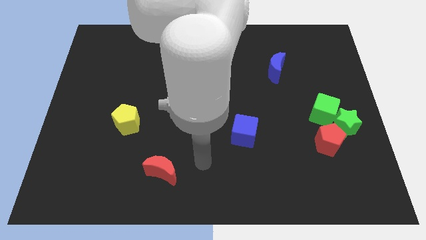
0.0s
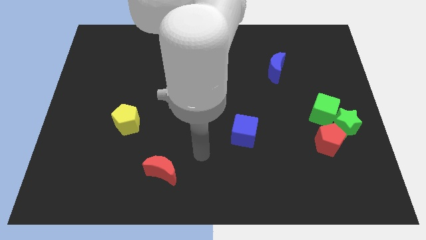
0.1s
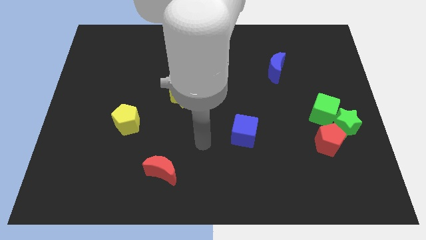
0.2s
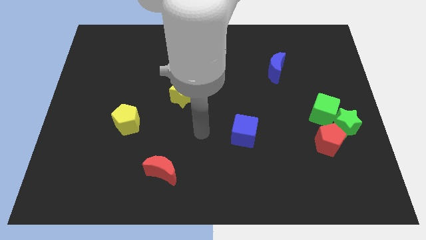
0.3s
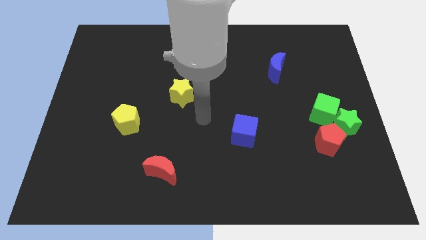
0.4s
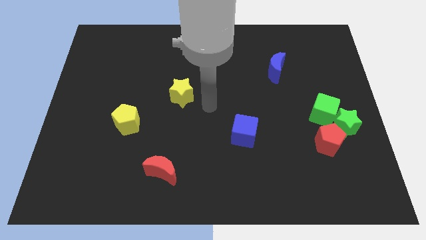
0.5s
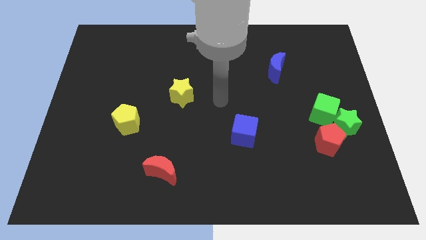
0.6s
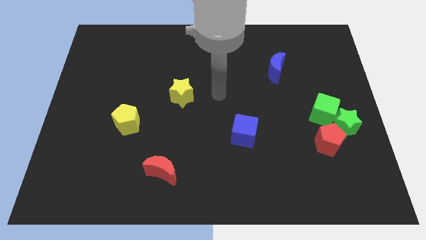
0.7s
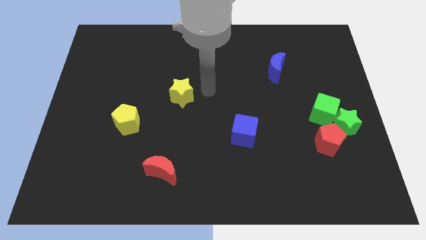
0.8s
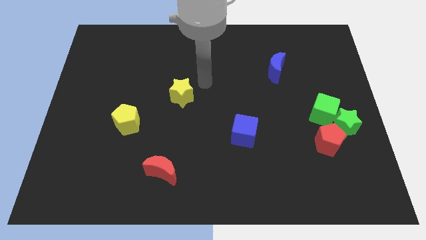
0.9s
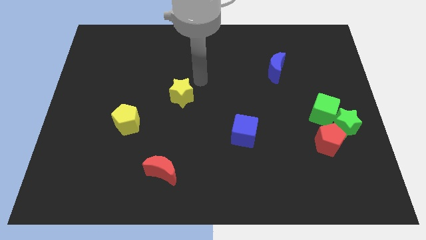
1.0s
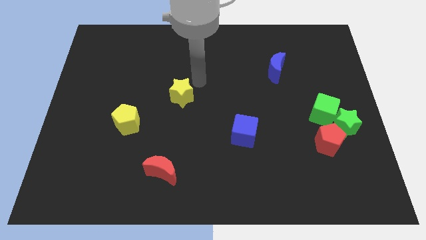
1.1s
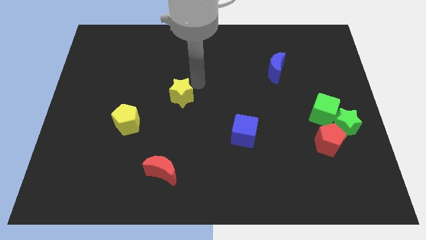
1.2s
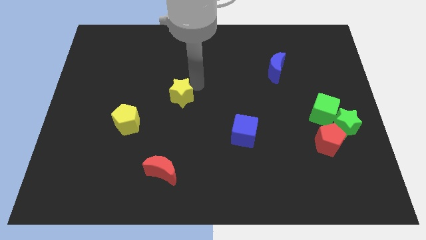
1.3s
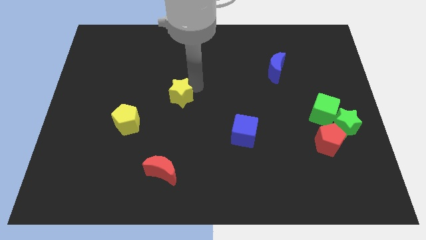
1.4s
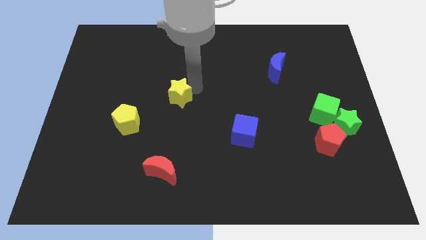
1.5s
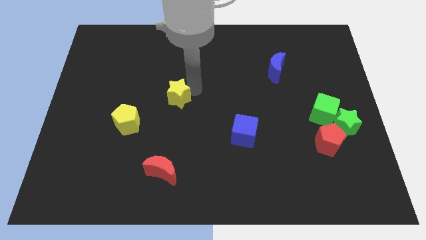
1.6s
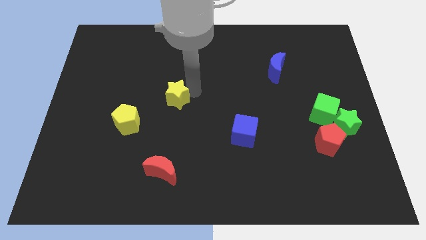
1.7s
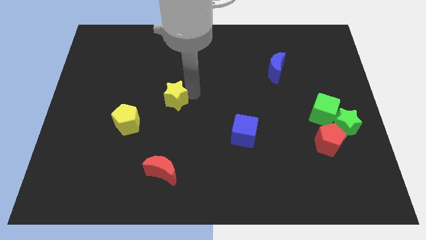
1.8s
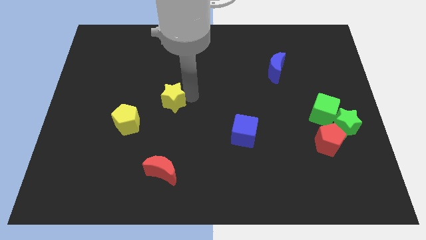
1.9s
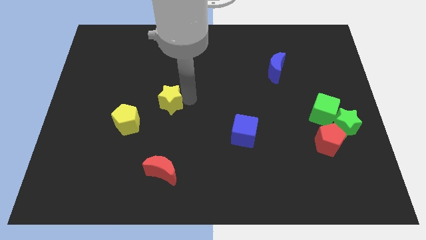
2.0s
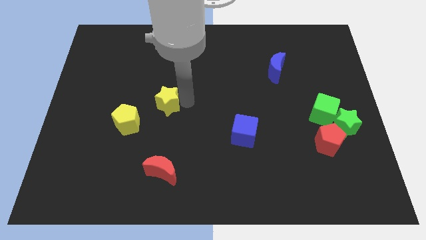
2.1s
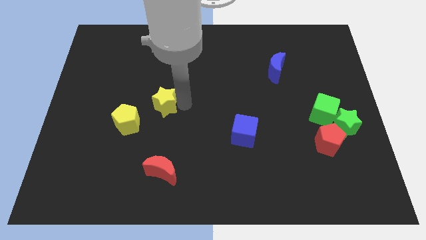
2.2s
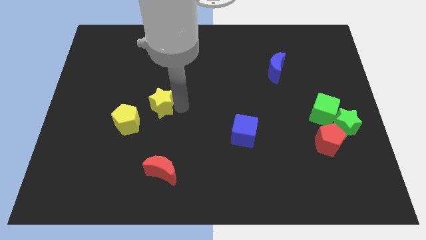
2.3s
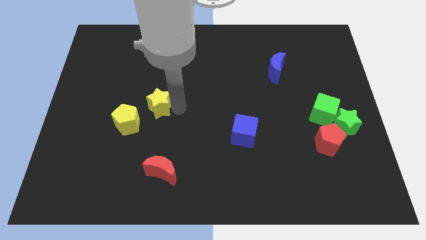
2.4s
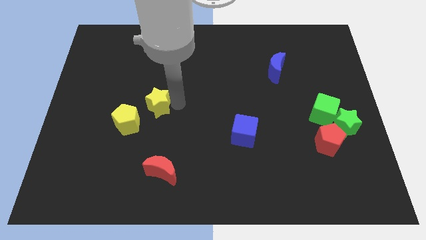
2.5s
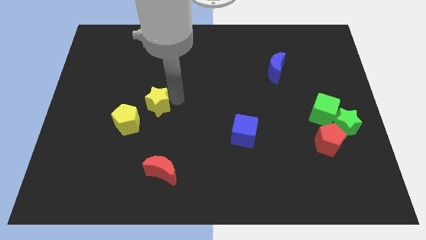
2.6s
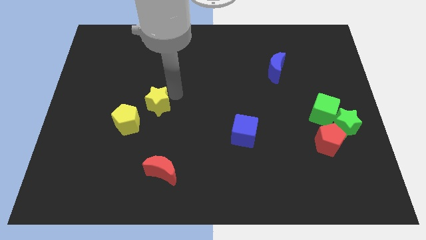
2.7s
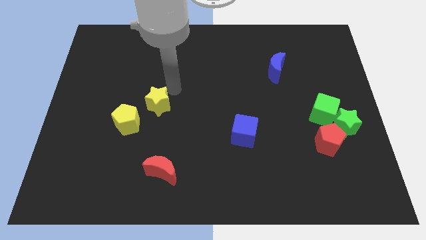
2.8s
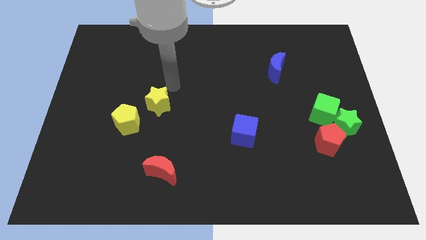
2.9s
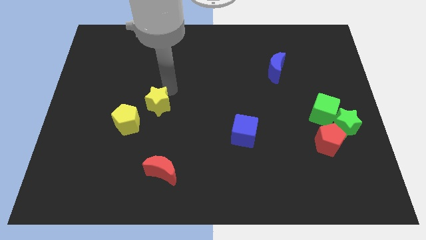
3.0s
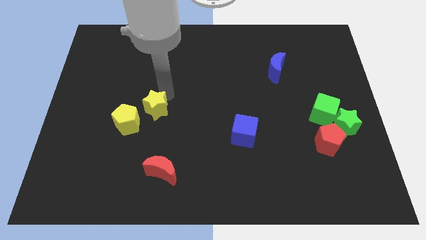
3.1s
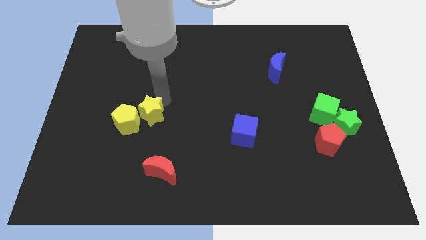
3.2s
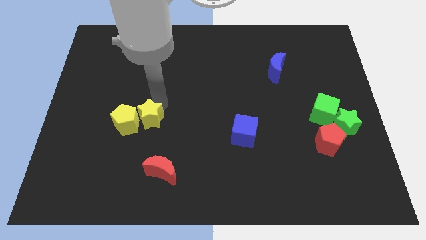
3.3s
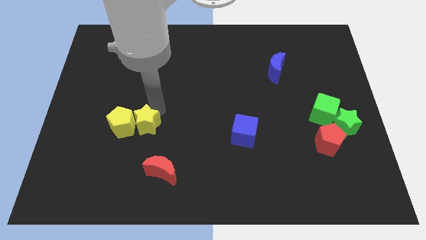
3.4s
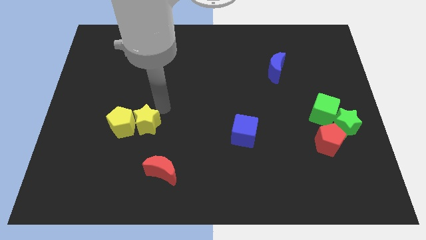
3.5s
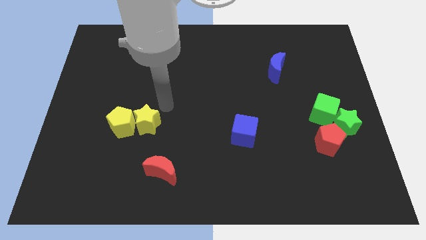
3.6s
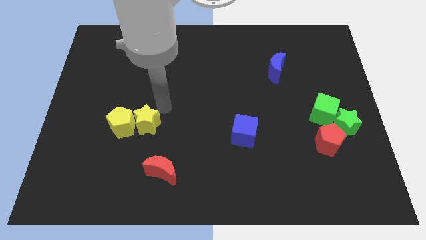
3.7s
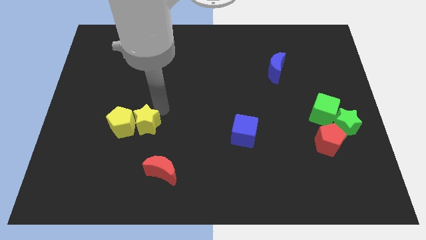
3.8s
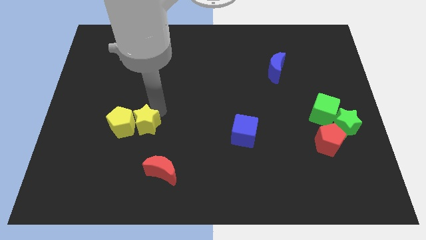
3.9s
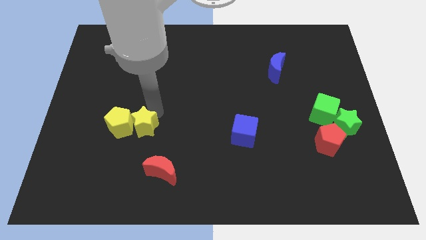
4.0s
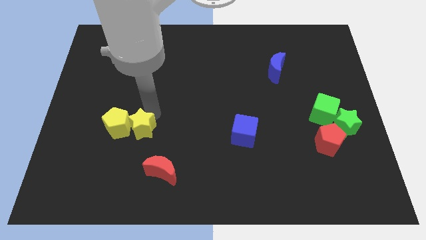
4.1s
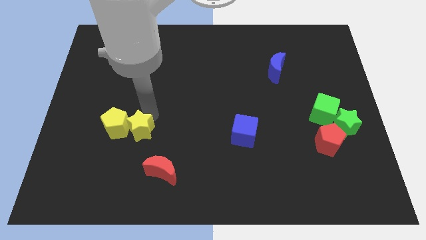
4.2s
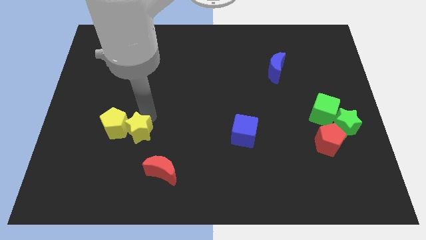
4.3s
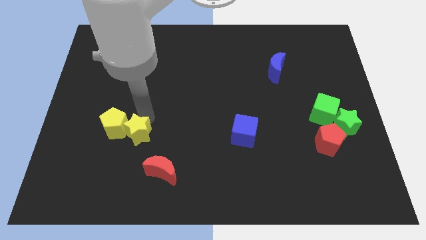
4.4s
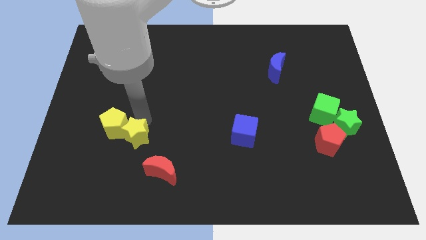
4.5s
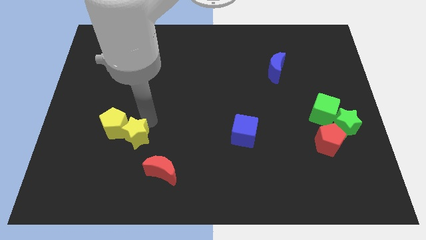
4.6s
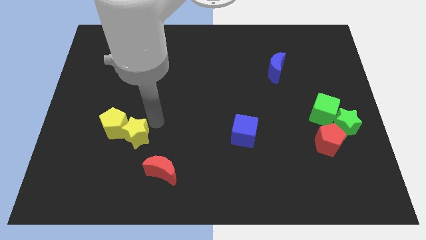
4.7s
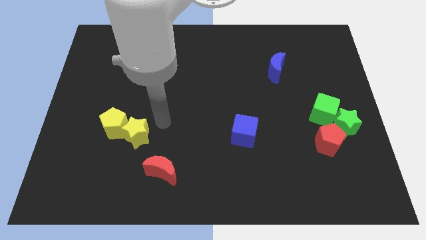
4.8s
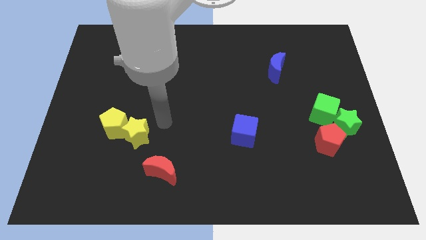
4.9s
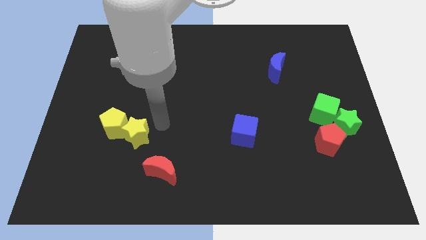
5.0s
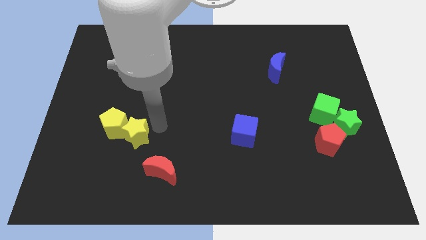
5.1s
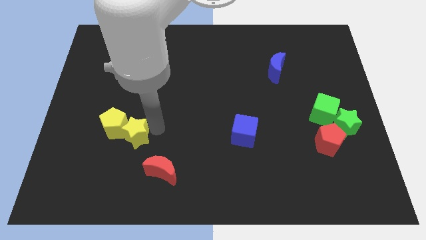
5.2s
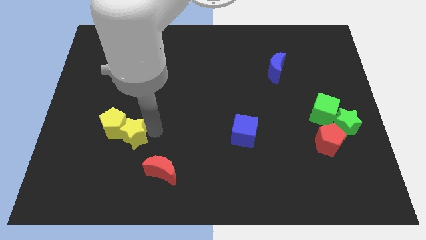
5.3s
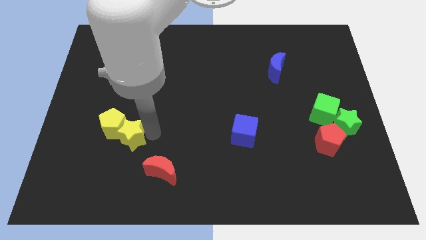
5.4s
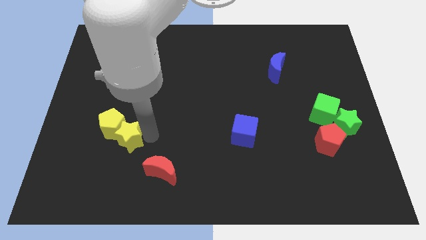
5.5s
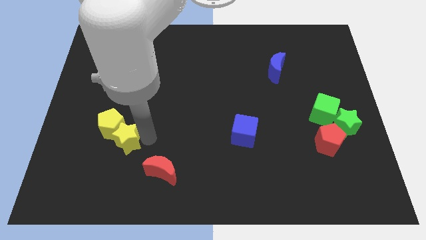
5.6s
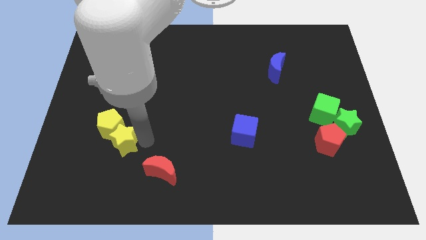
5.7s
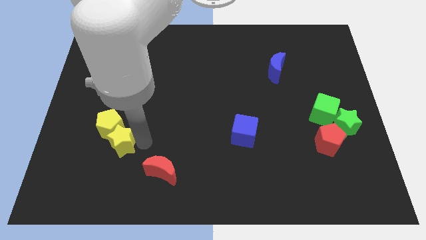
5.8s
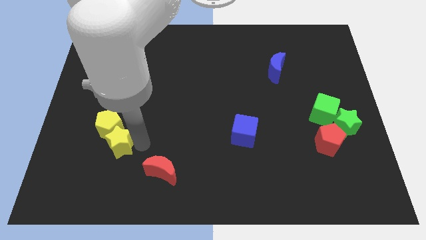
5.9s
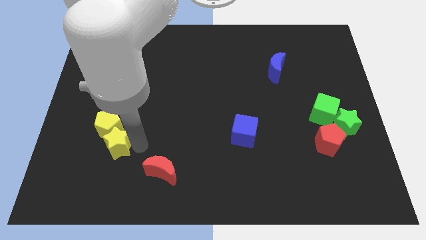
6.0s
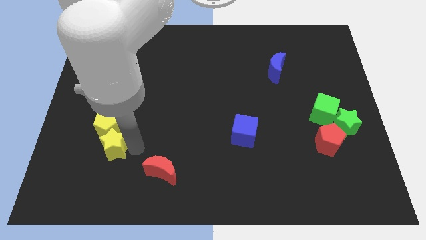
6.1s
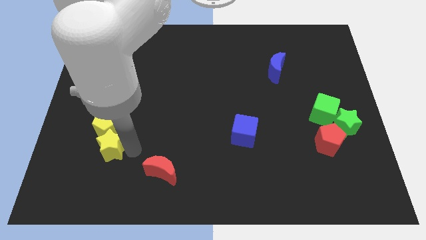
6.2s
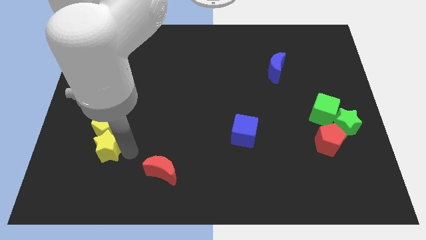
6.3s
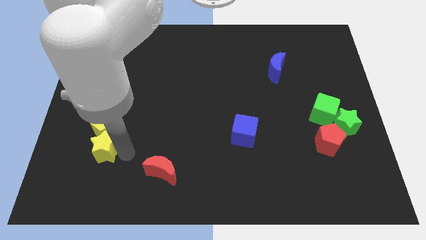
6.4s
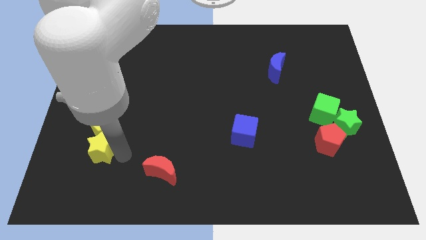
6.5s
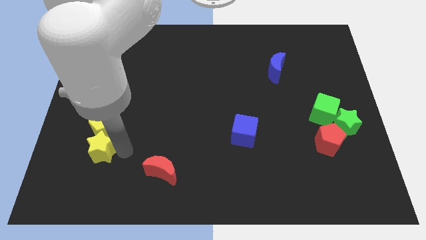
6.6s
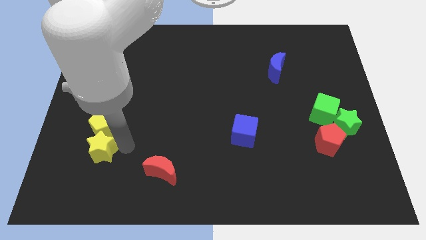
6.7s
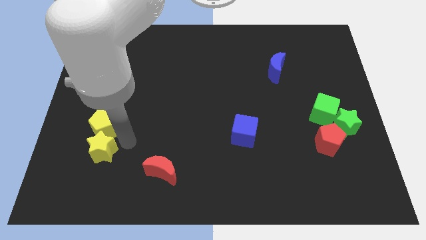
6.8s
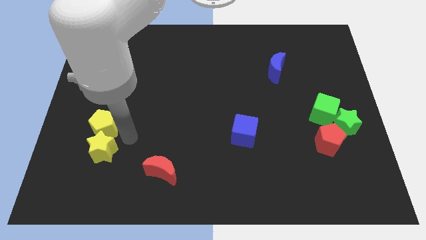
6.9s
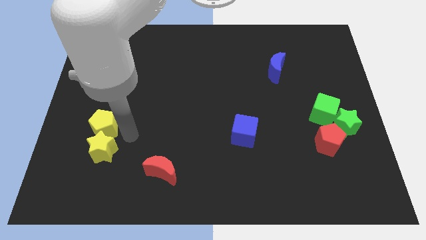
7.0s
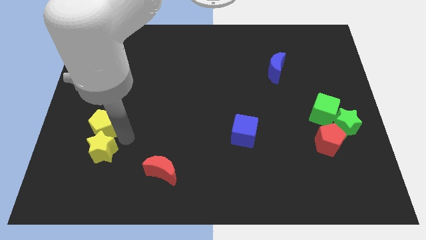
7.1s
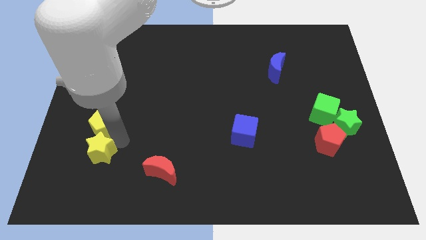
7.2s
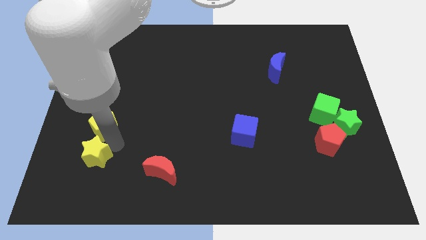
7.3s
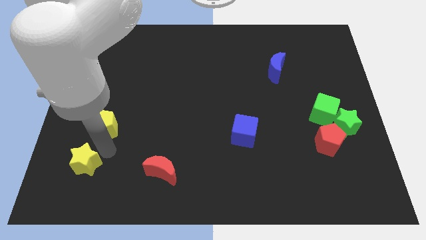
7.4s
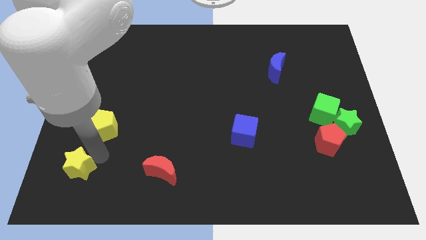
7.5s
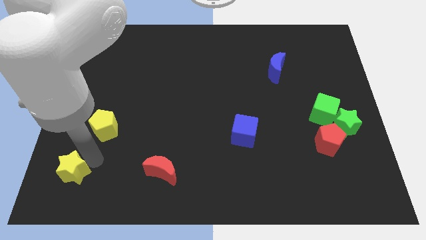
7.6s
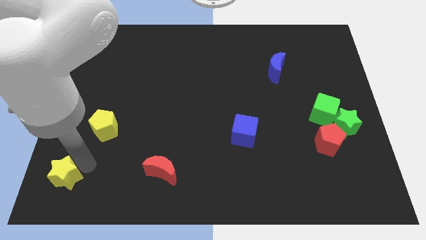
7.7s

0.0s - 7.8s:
slide the yellow star to the bottom left of the board
